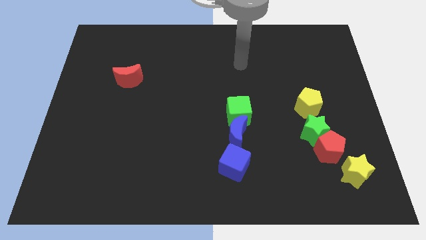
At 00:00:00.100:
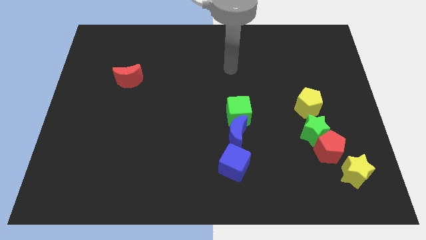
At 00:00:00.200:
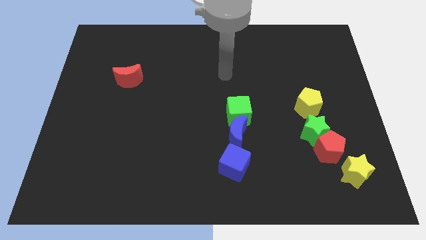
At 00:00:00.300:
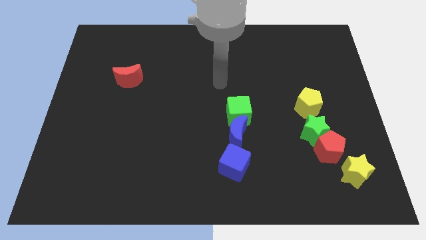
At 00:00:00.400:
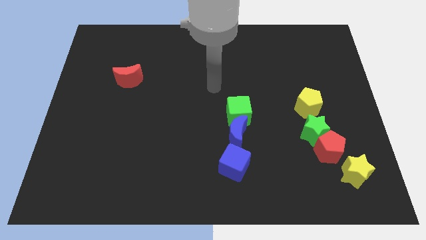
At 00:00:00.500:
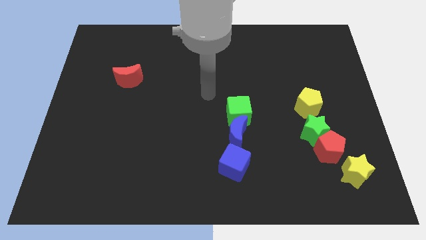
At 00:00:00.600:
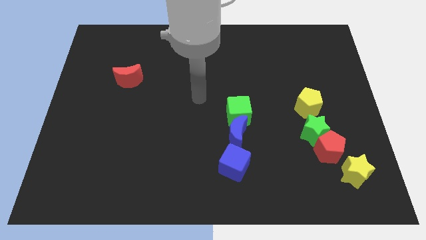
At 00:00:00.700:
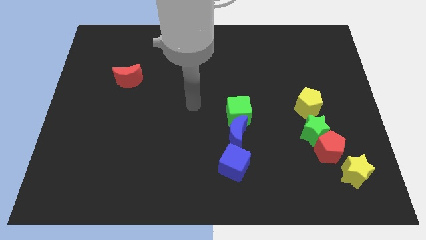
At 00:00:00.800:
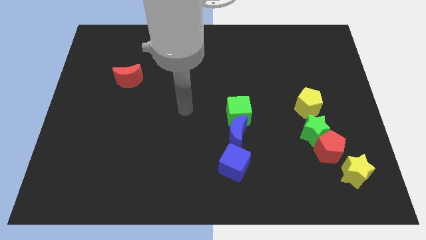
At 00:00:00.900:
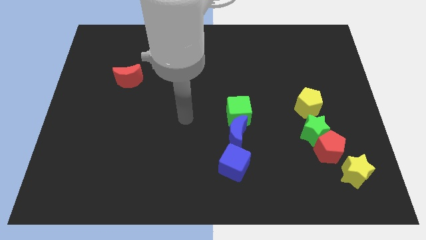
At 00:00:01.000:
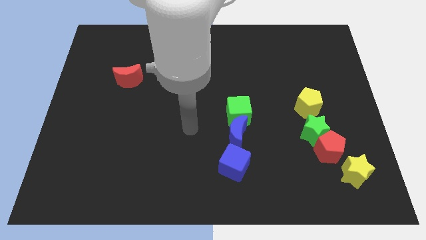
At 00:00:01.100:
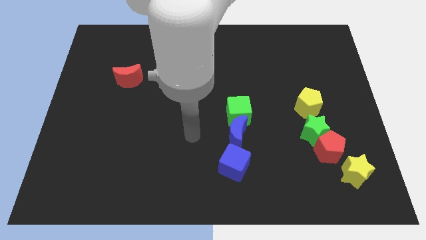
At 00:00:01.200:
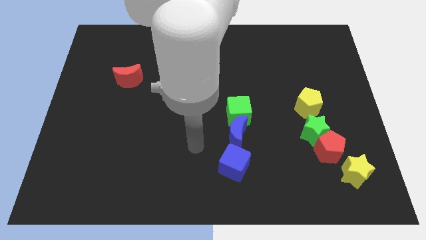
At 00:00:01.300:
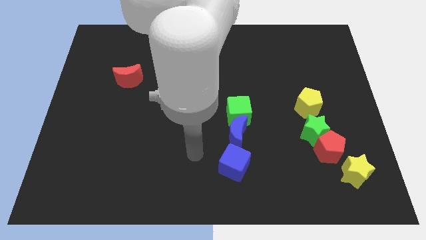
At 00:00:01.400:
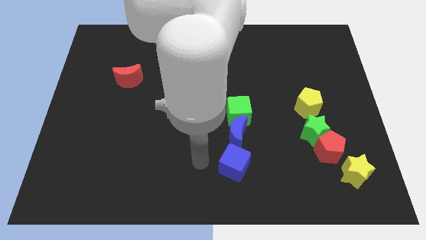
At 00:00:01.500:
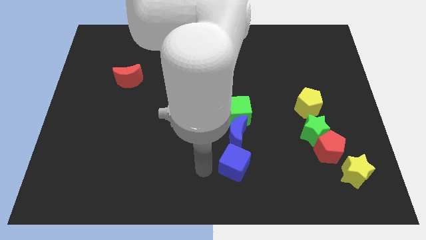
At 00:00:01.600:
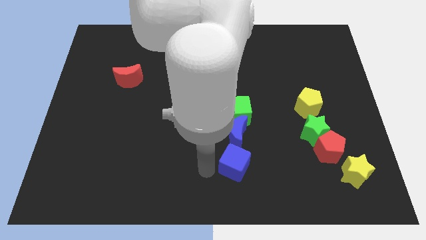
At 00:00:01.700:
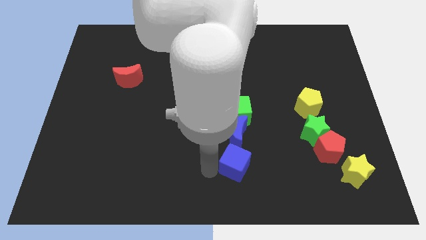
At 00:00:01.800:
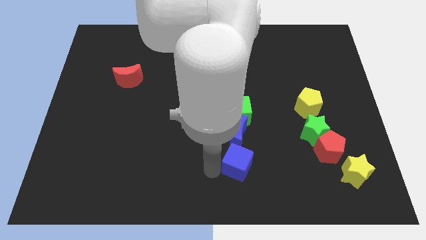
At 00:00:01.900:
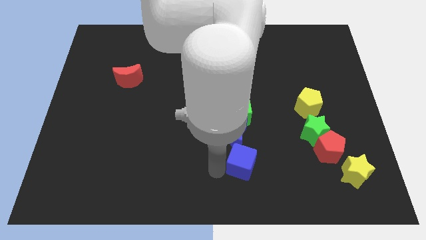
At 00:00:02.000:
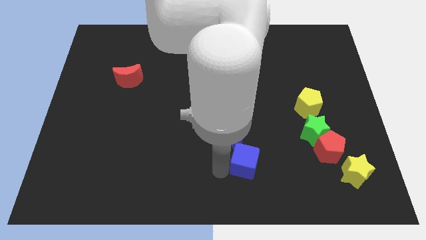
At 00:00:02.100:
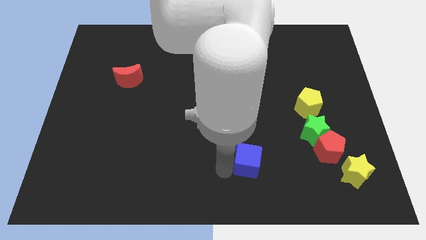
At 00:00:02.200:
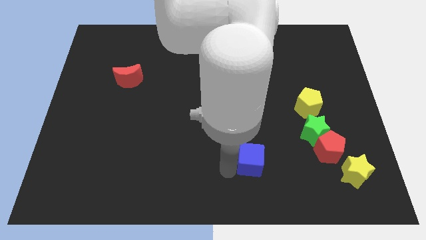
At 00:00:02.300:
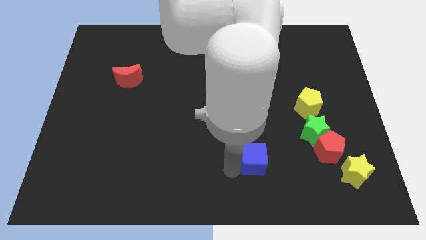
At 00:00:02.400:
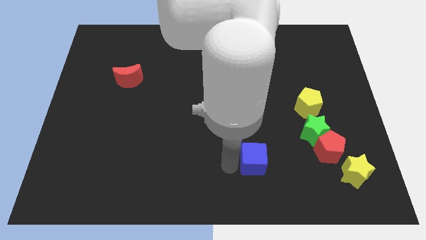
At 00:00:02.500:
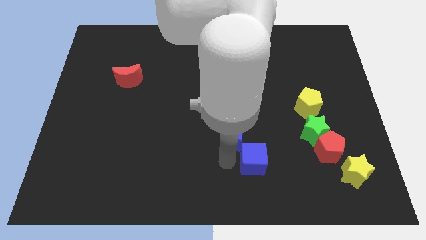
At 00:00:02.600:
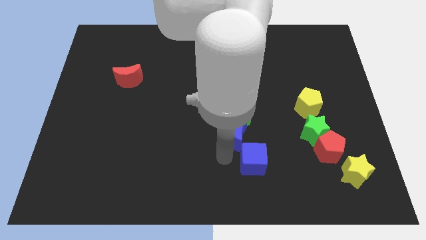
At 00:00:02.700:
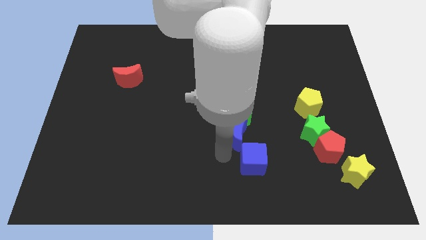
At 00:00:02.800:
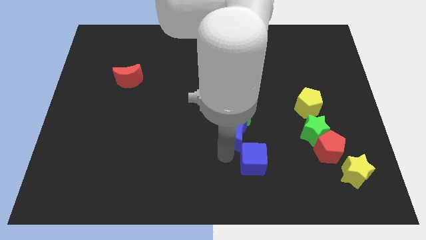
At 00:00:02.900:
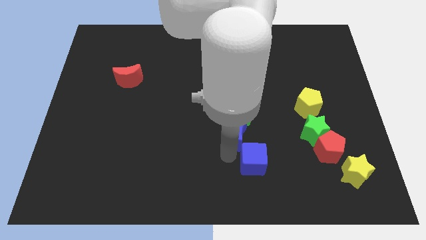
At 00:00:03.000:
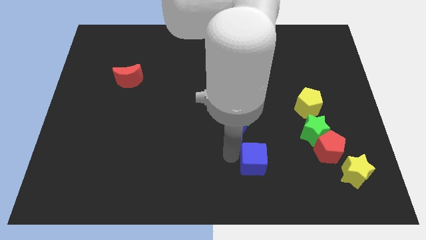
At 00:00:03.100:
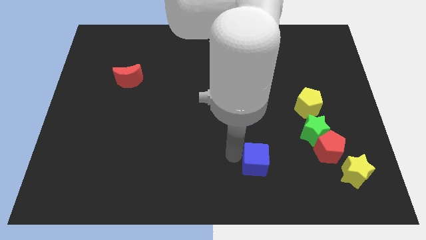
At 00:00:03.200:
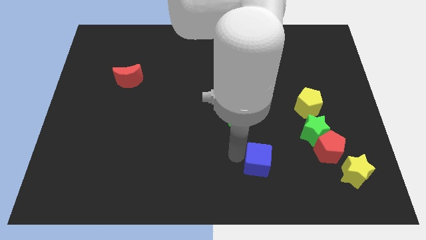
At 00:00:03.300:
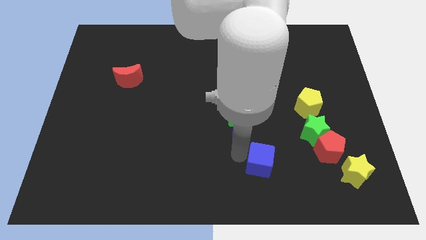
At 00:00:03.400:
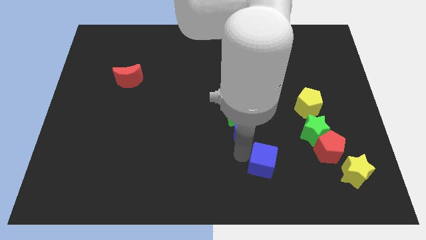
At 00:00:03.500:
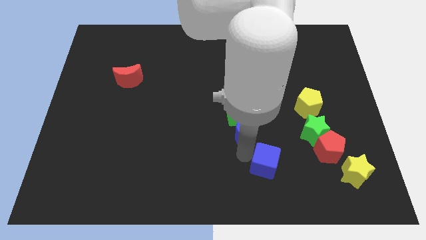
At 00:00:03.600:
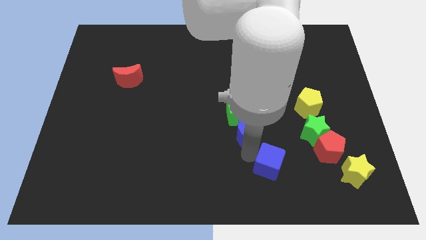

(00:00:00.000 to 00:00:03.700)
move the blue cube to the right a little

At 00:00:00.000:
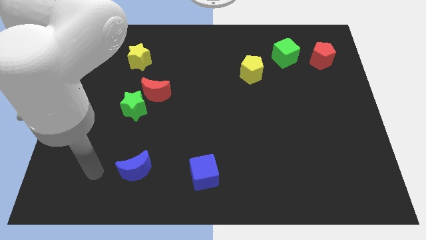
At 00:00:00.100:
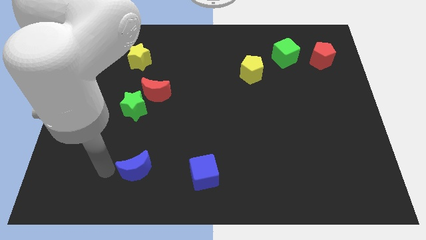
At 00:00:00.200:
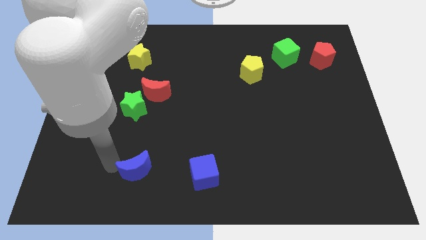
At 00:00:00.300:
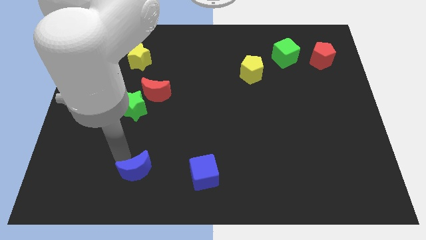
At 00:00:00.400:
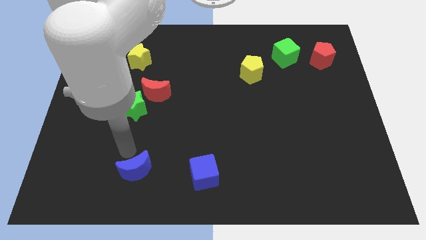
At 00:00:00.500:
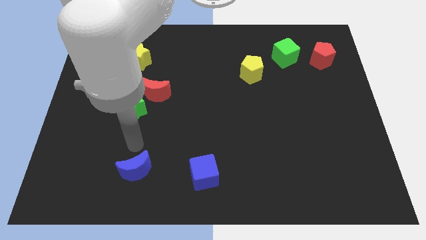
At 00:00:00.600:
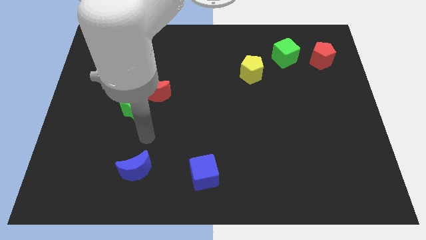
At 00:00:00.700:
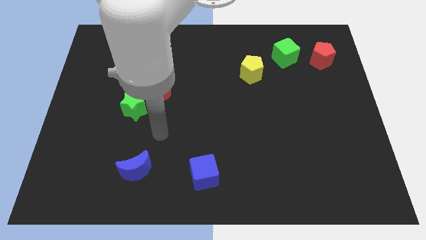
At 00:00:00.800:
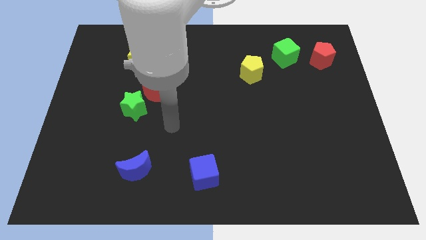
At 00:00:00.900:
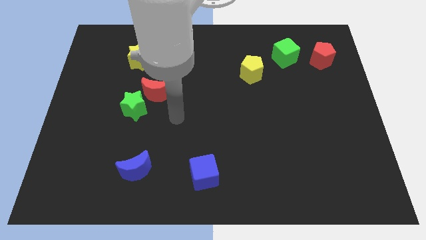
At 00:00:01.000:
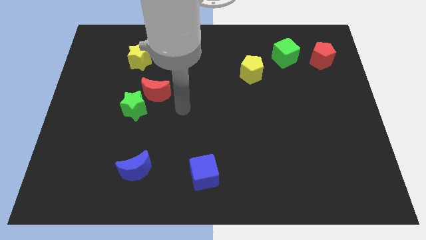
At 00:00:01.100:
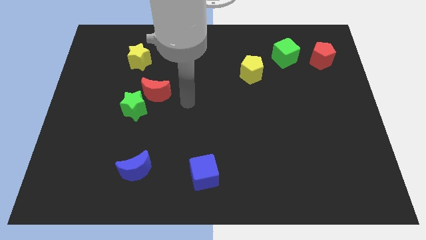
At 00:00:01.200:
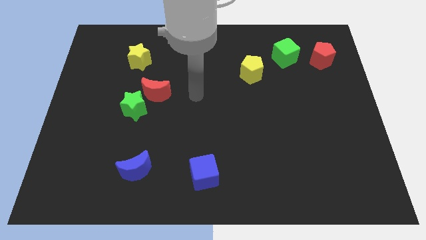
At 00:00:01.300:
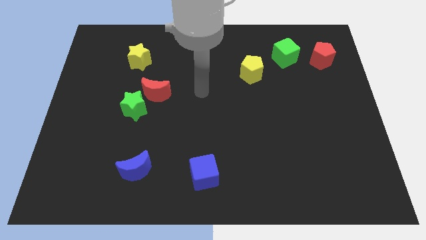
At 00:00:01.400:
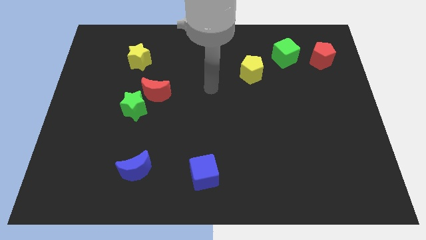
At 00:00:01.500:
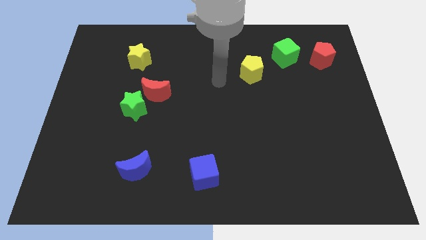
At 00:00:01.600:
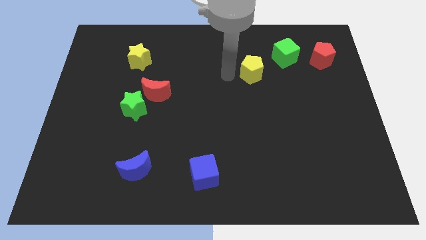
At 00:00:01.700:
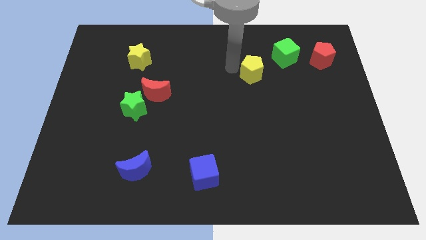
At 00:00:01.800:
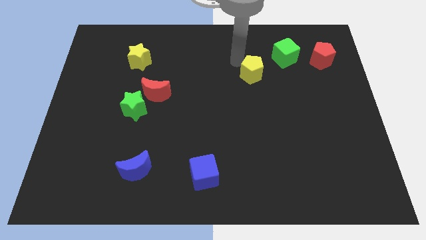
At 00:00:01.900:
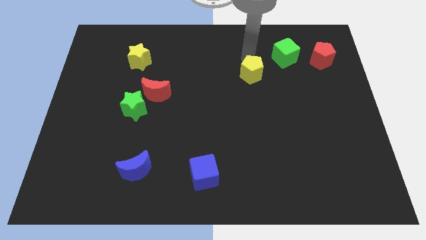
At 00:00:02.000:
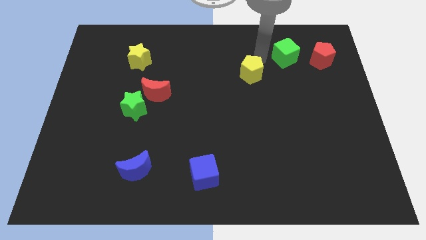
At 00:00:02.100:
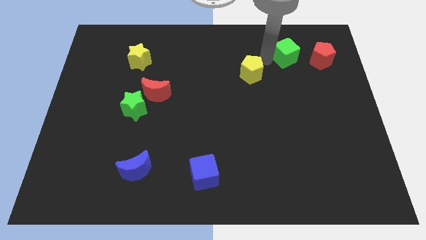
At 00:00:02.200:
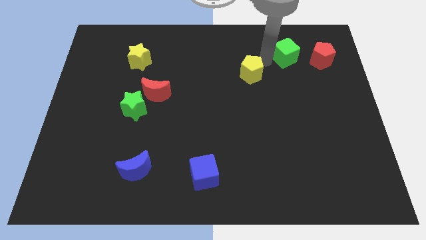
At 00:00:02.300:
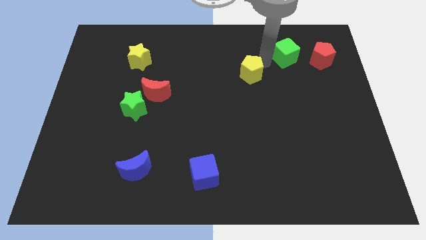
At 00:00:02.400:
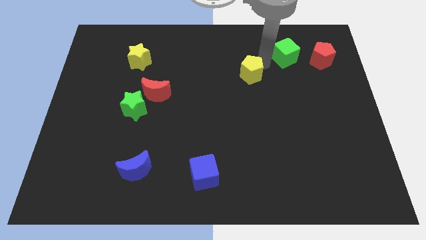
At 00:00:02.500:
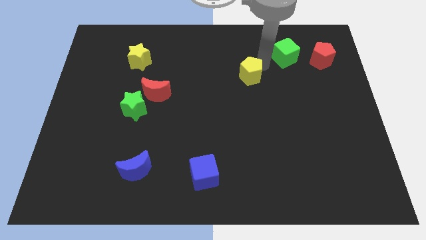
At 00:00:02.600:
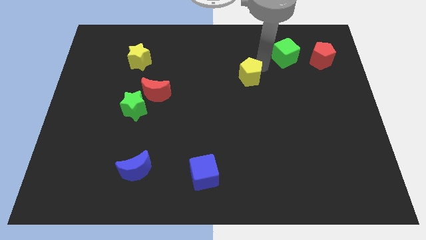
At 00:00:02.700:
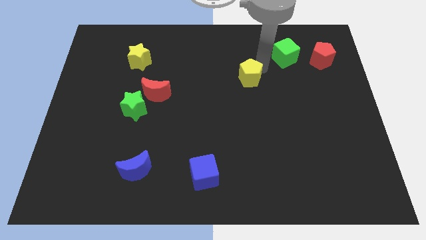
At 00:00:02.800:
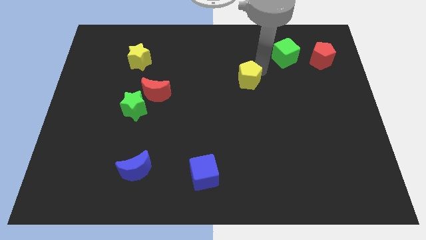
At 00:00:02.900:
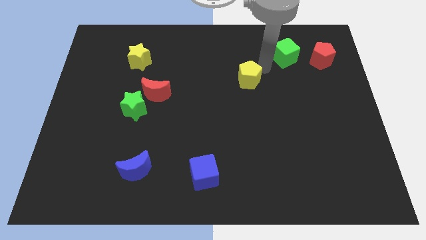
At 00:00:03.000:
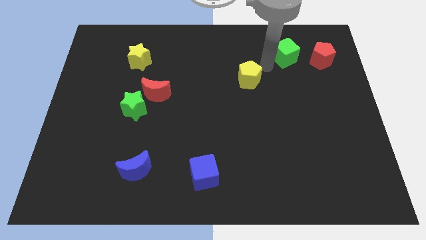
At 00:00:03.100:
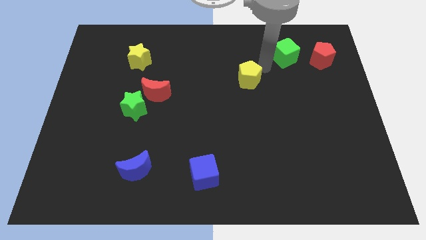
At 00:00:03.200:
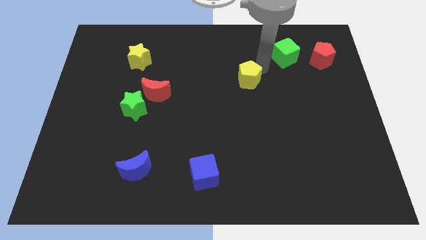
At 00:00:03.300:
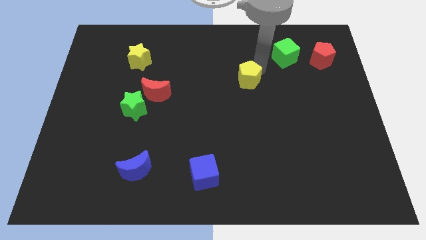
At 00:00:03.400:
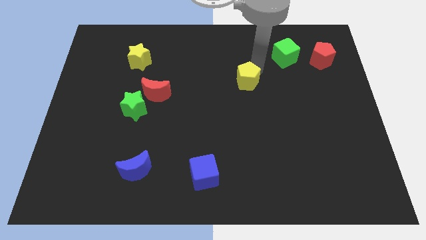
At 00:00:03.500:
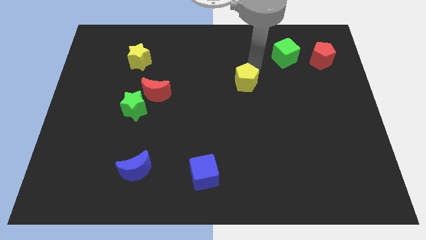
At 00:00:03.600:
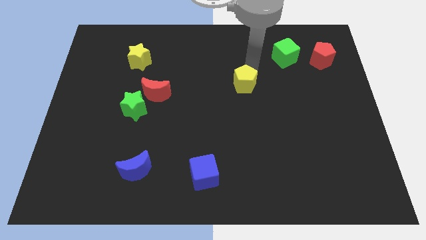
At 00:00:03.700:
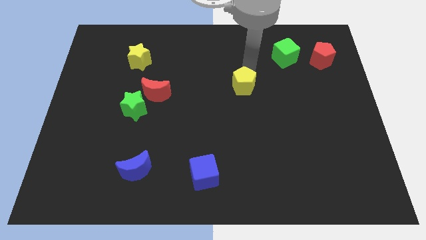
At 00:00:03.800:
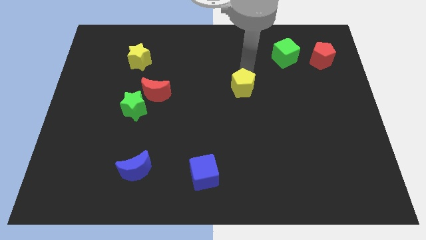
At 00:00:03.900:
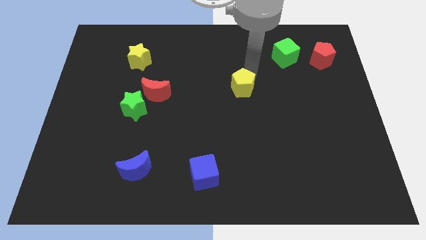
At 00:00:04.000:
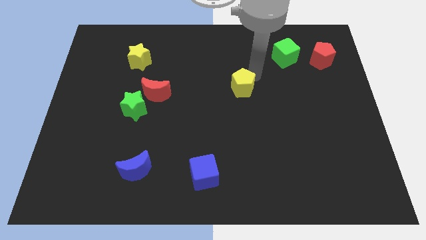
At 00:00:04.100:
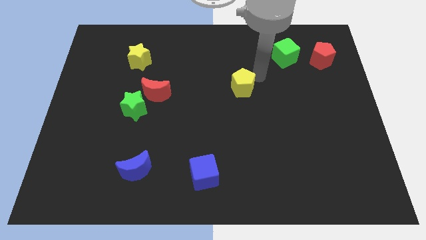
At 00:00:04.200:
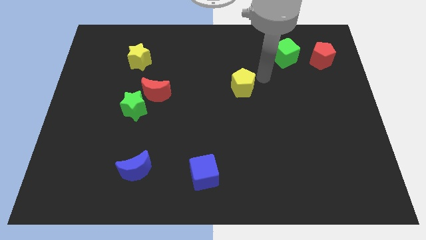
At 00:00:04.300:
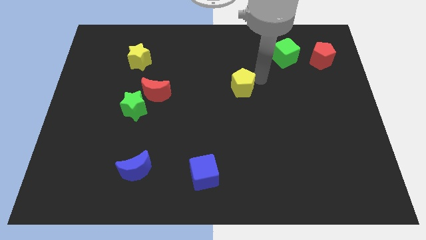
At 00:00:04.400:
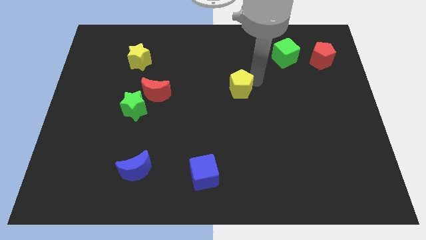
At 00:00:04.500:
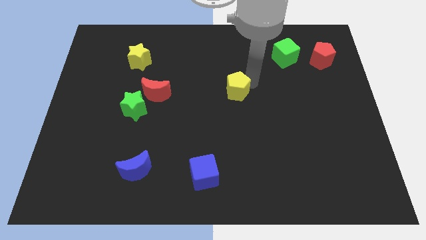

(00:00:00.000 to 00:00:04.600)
slightly push the yellow pentagon down and to the left diagonally
